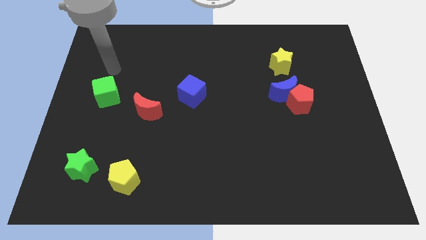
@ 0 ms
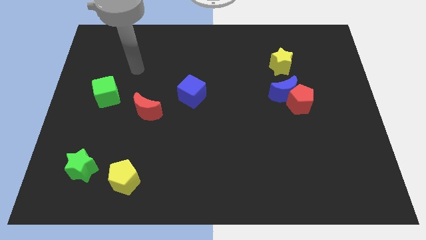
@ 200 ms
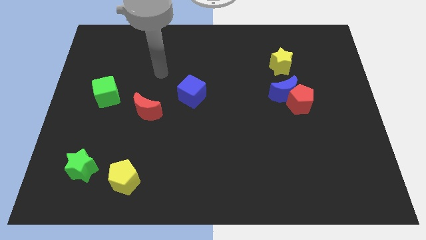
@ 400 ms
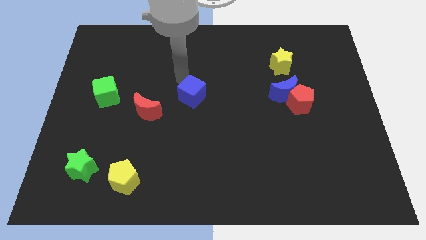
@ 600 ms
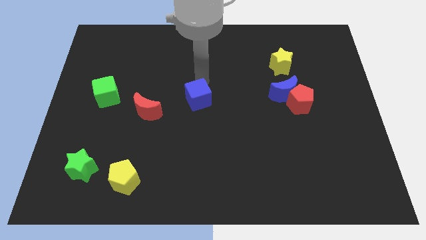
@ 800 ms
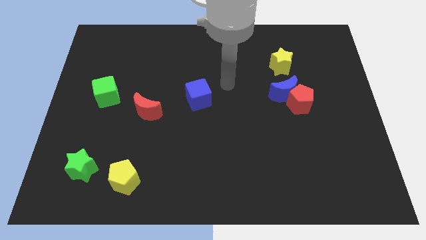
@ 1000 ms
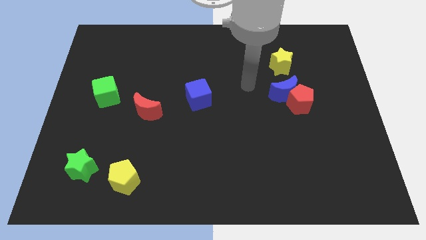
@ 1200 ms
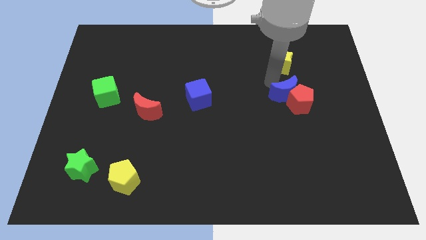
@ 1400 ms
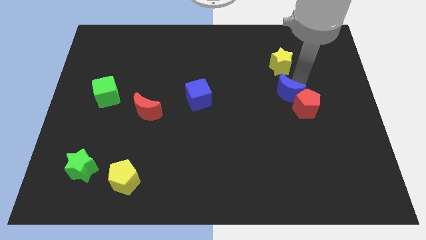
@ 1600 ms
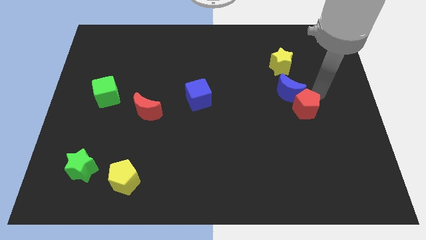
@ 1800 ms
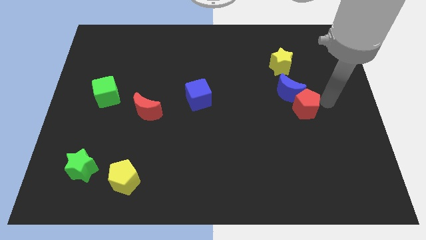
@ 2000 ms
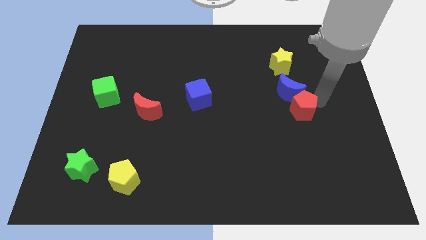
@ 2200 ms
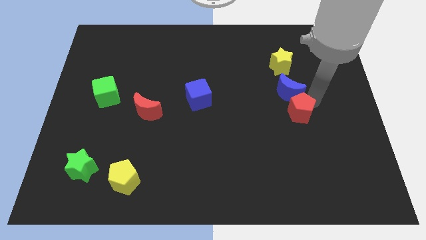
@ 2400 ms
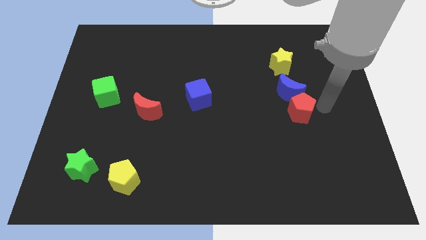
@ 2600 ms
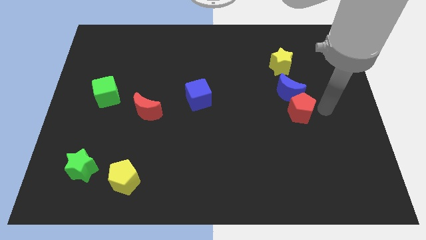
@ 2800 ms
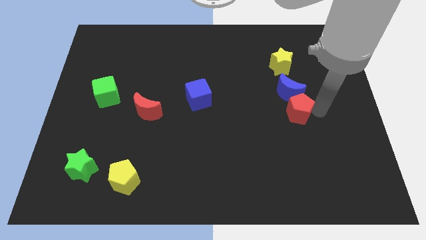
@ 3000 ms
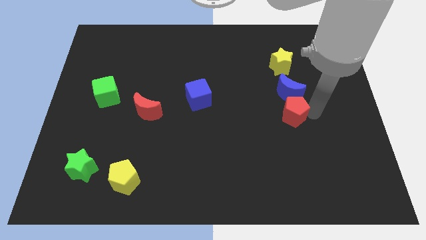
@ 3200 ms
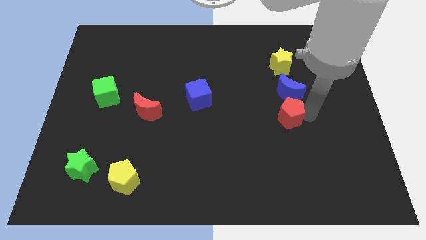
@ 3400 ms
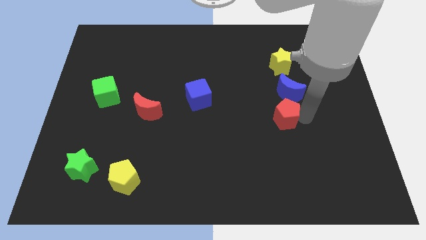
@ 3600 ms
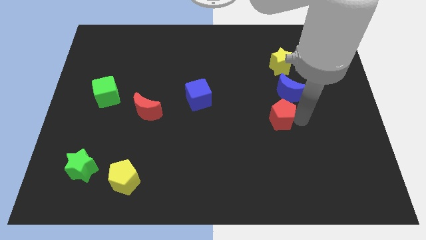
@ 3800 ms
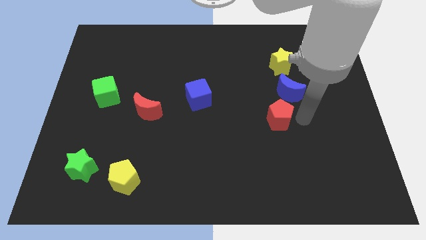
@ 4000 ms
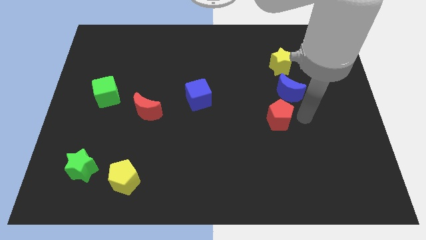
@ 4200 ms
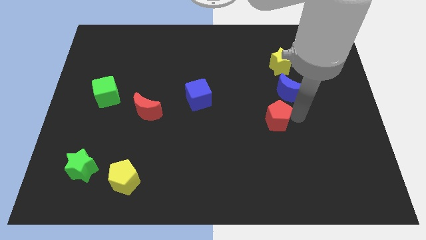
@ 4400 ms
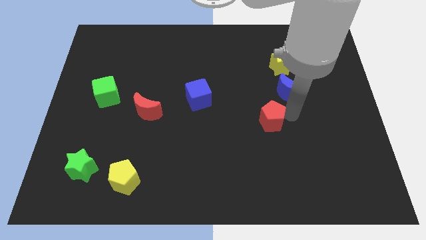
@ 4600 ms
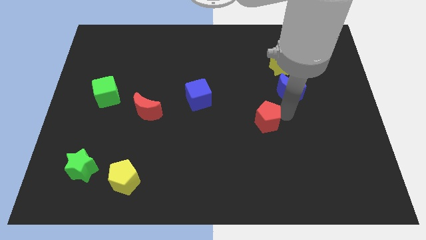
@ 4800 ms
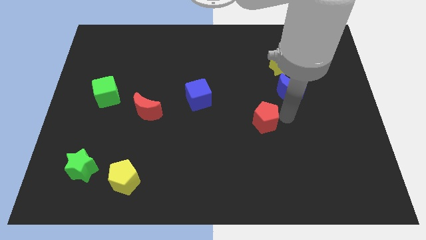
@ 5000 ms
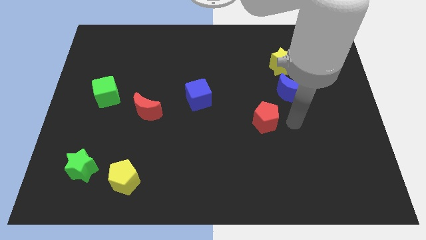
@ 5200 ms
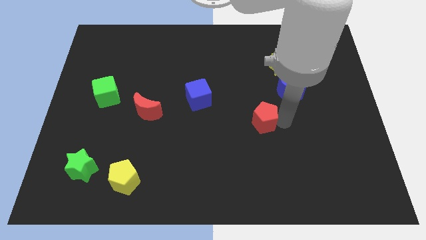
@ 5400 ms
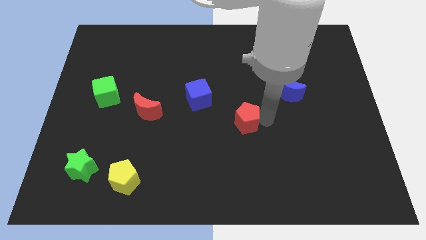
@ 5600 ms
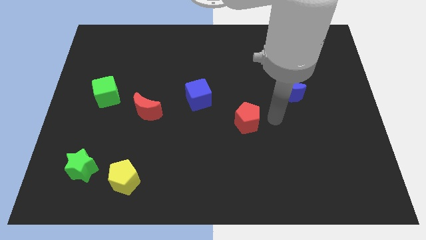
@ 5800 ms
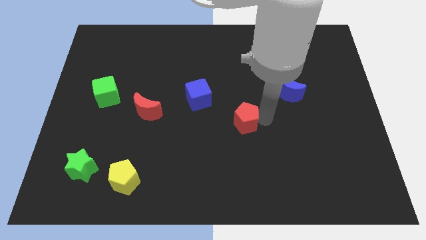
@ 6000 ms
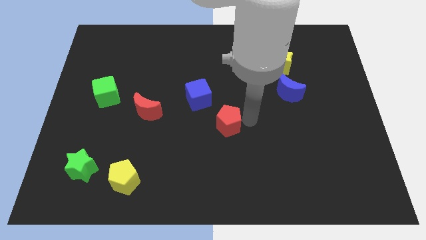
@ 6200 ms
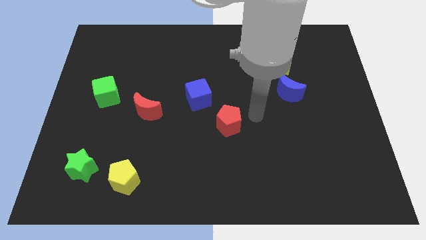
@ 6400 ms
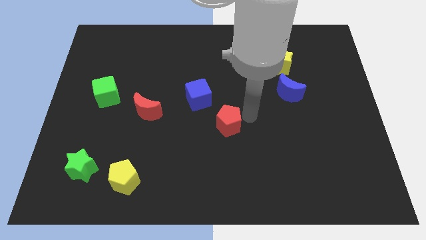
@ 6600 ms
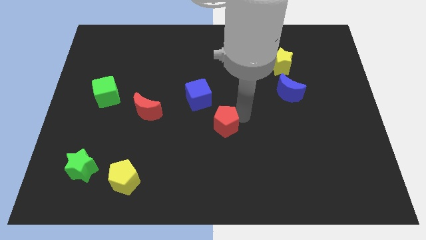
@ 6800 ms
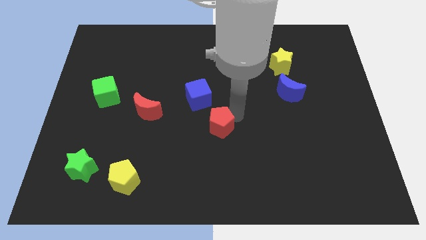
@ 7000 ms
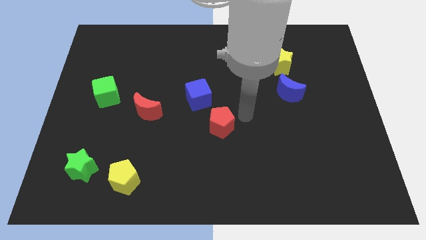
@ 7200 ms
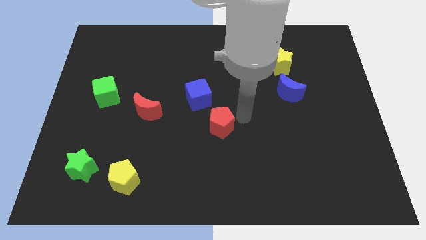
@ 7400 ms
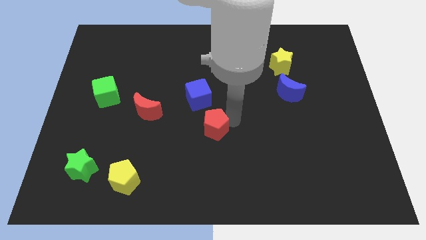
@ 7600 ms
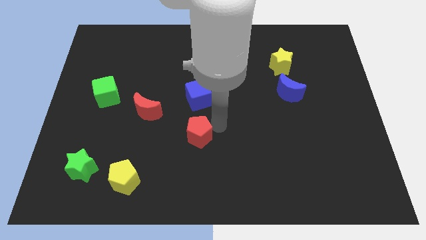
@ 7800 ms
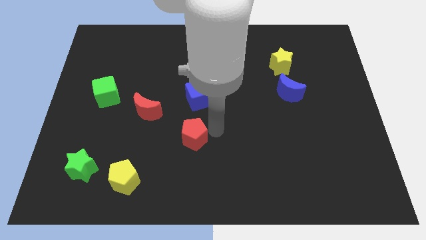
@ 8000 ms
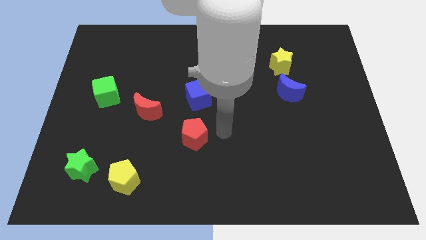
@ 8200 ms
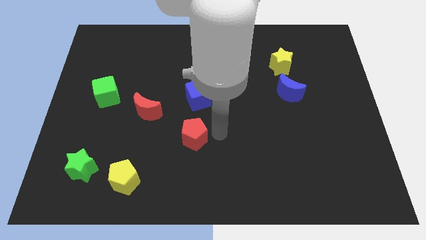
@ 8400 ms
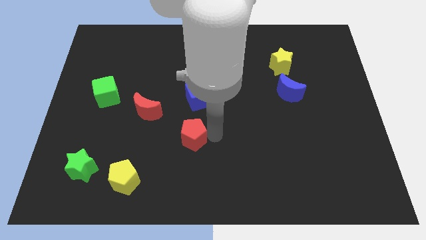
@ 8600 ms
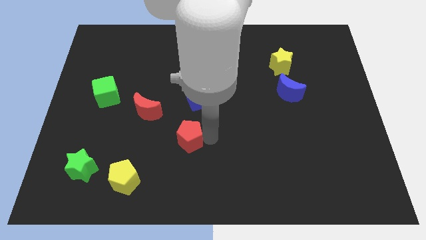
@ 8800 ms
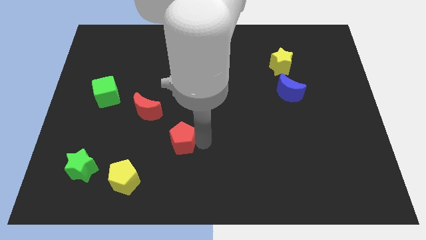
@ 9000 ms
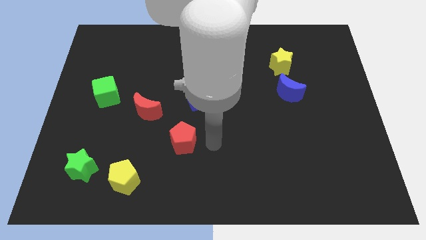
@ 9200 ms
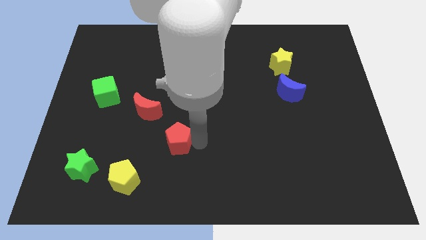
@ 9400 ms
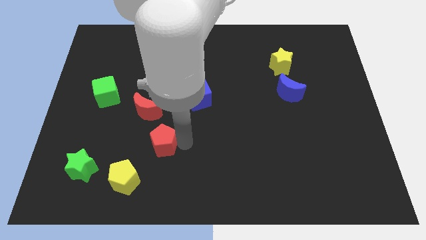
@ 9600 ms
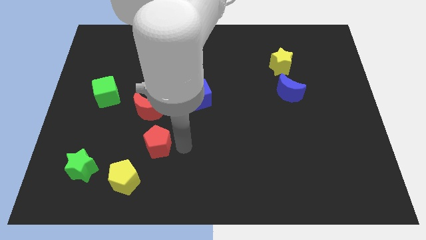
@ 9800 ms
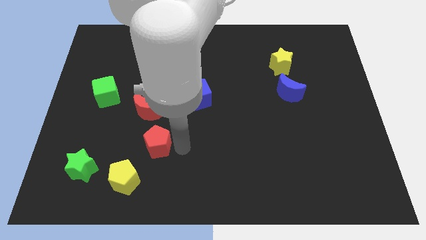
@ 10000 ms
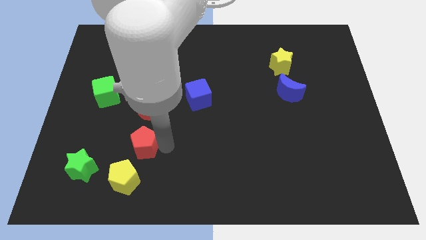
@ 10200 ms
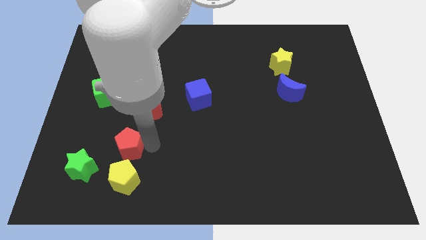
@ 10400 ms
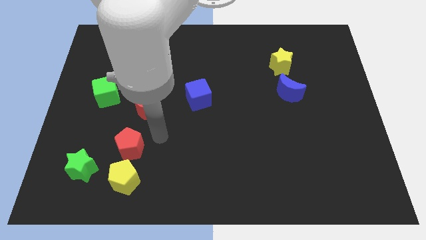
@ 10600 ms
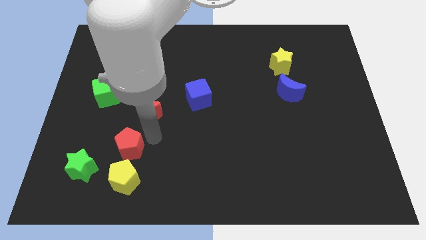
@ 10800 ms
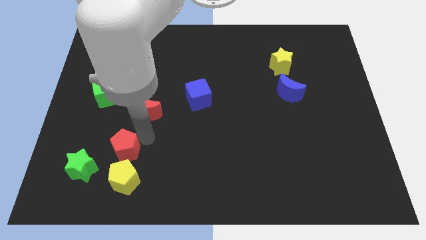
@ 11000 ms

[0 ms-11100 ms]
slide the red pentagon to the top left side of the yellow pentagon

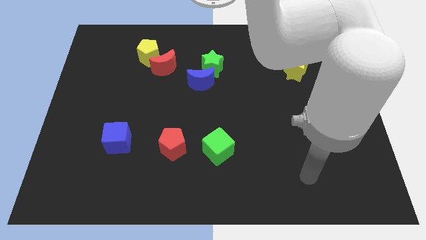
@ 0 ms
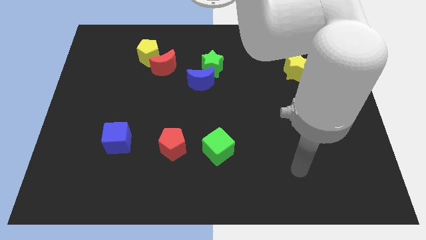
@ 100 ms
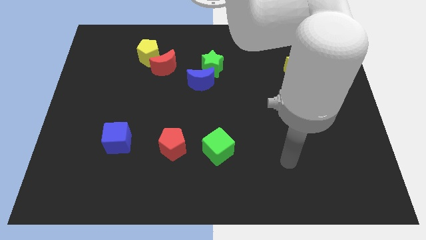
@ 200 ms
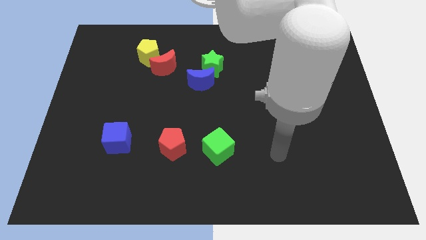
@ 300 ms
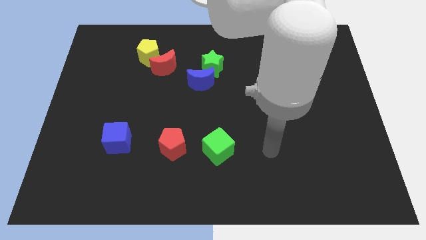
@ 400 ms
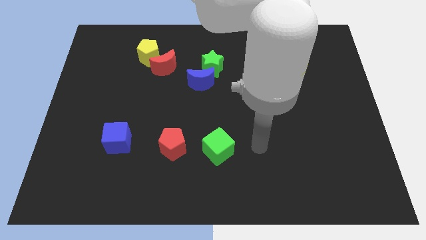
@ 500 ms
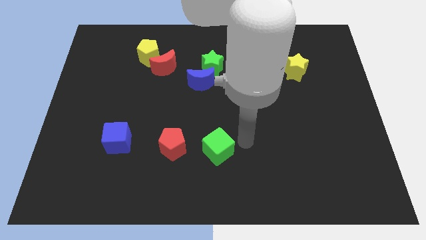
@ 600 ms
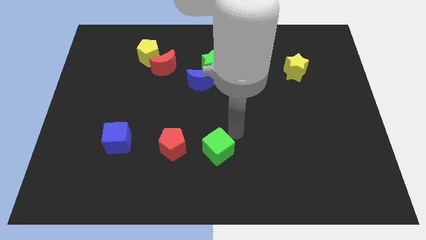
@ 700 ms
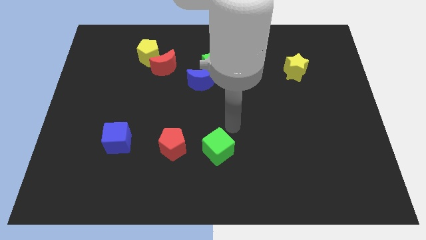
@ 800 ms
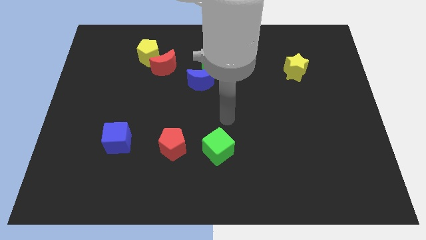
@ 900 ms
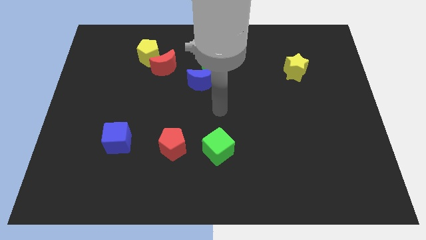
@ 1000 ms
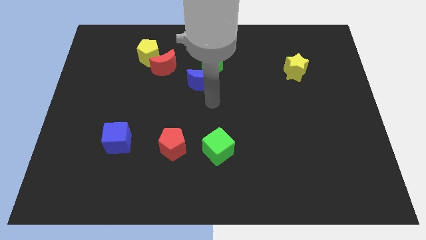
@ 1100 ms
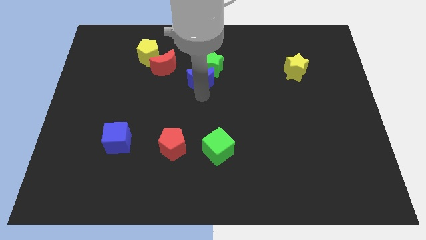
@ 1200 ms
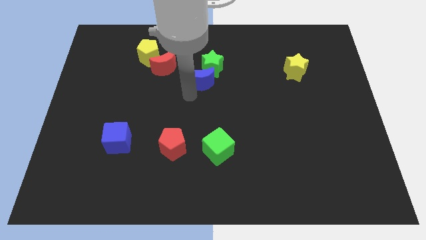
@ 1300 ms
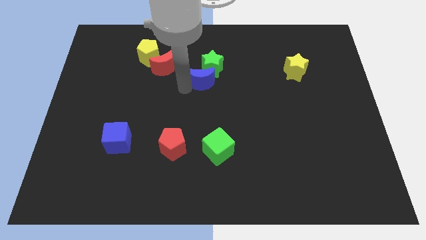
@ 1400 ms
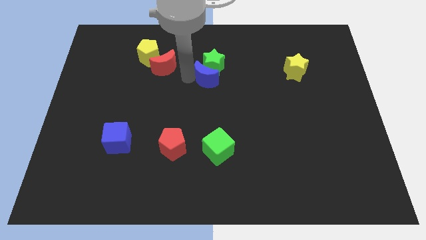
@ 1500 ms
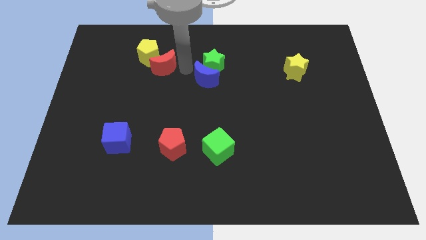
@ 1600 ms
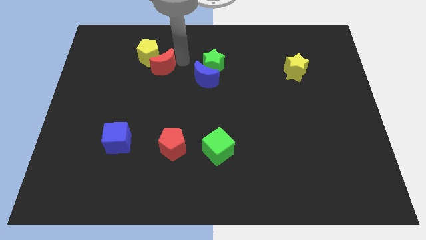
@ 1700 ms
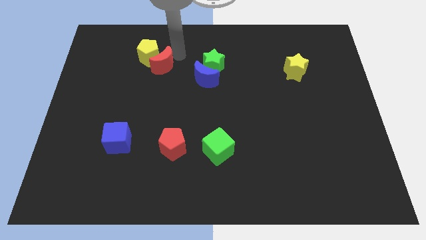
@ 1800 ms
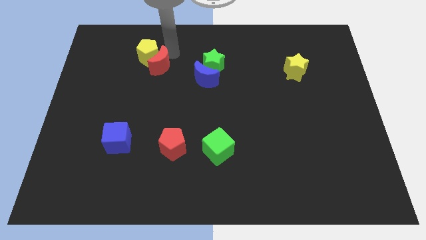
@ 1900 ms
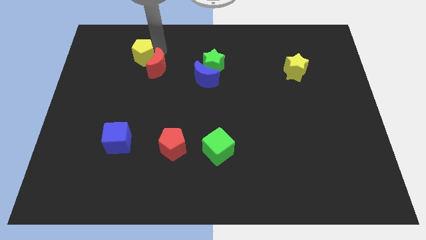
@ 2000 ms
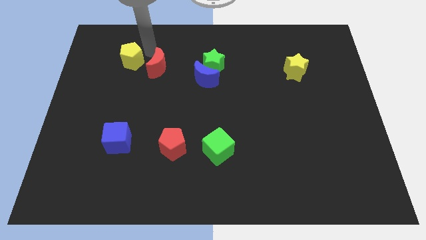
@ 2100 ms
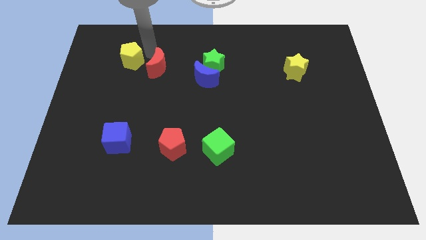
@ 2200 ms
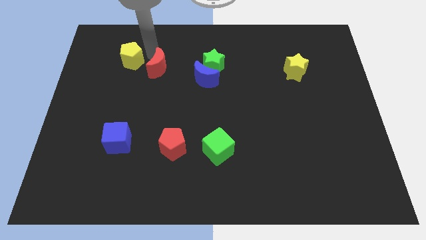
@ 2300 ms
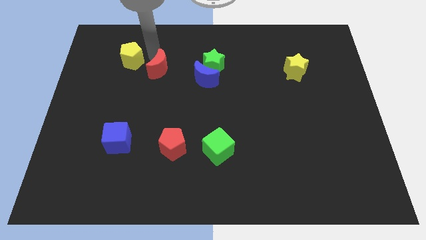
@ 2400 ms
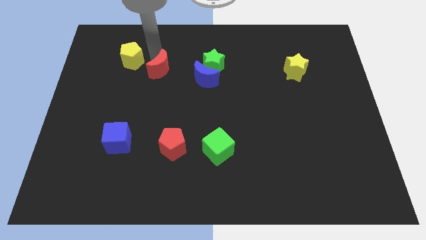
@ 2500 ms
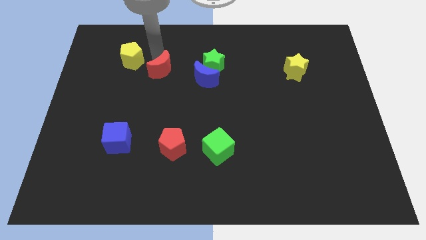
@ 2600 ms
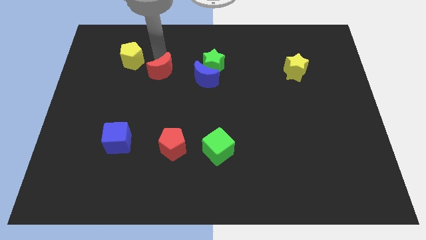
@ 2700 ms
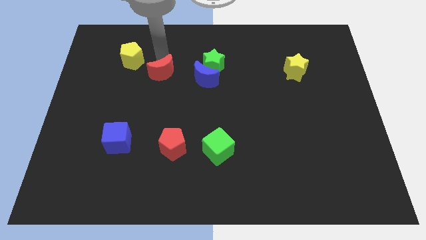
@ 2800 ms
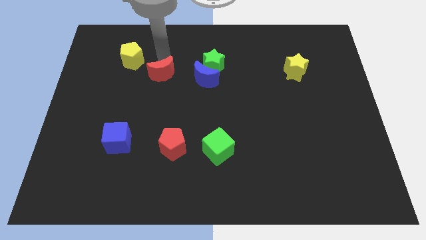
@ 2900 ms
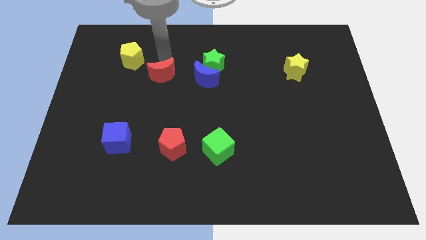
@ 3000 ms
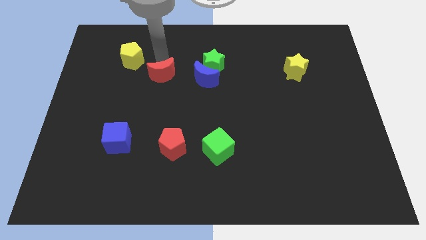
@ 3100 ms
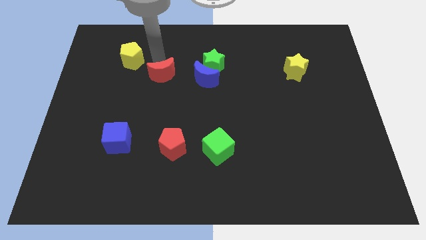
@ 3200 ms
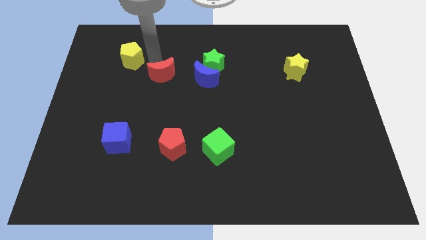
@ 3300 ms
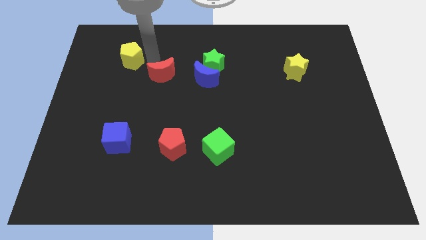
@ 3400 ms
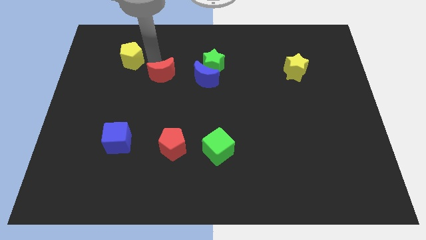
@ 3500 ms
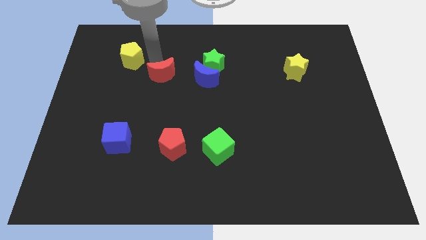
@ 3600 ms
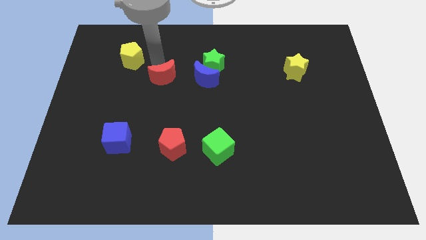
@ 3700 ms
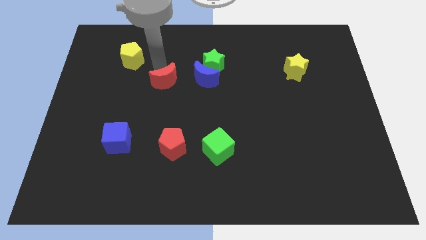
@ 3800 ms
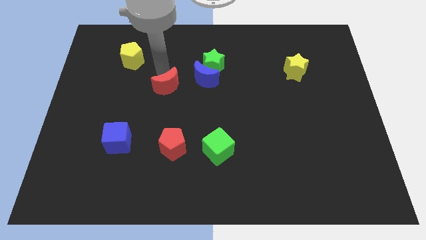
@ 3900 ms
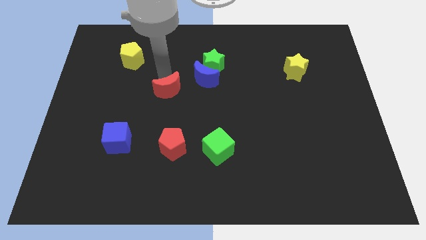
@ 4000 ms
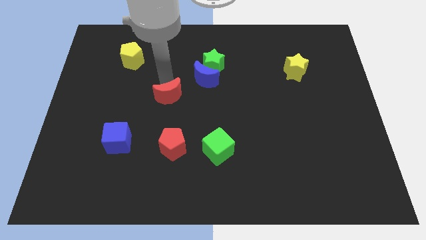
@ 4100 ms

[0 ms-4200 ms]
push the red moon to the top of the red pentagon
